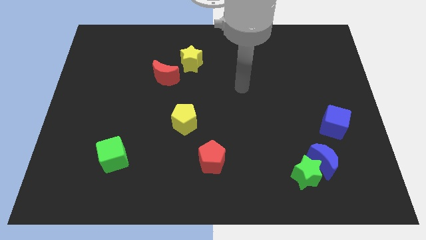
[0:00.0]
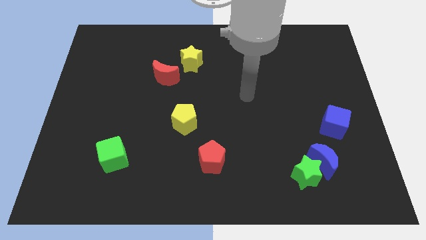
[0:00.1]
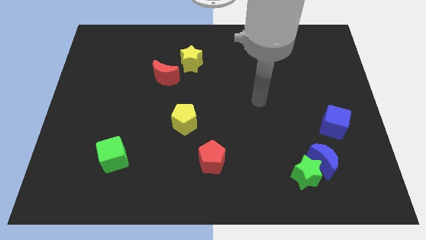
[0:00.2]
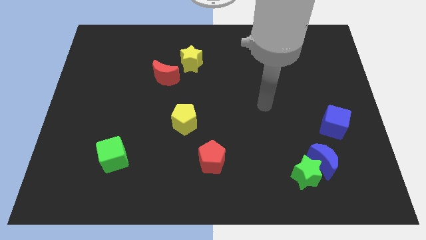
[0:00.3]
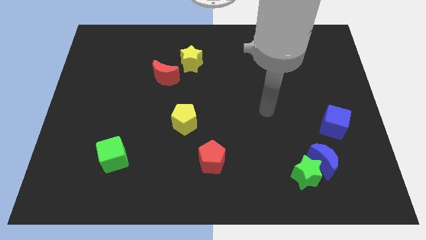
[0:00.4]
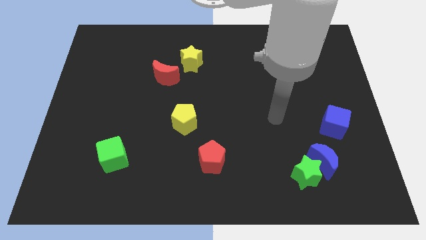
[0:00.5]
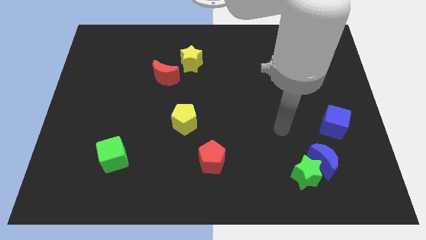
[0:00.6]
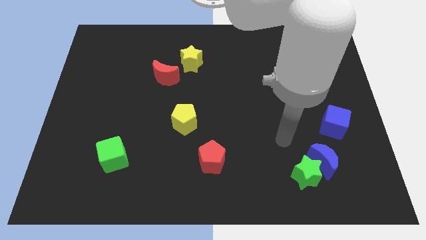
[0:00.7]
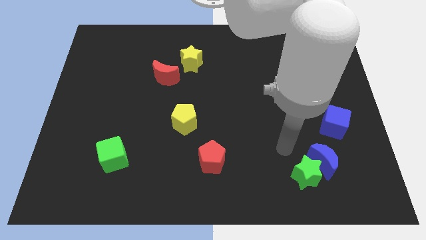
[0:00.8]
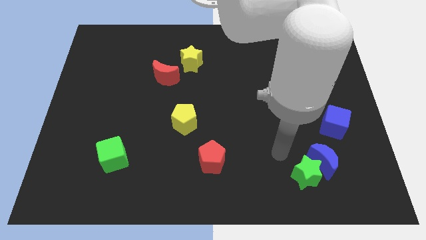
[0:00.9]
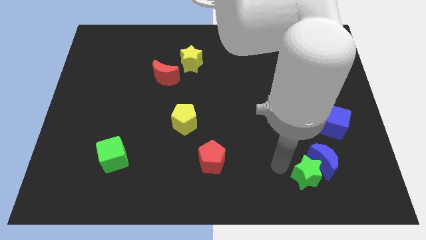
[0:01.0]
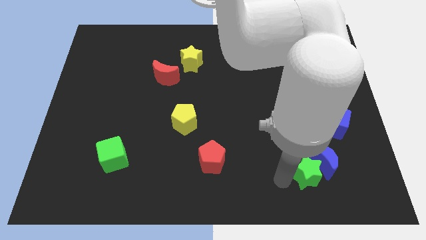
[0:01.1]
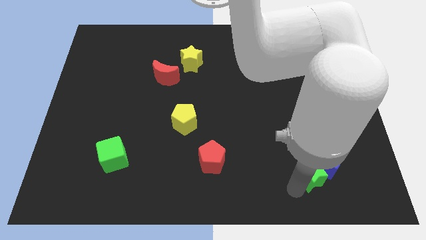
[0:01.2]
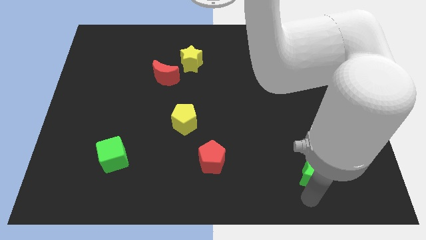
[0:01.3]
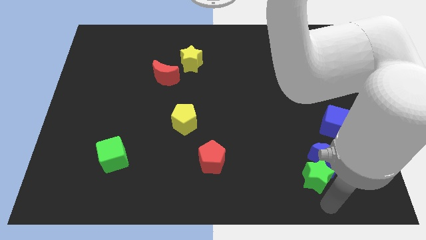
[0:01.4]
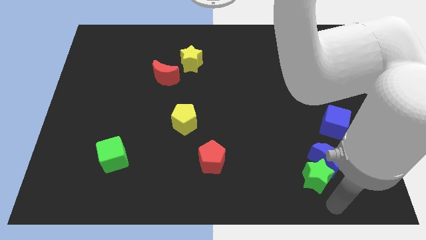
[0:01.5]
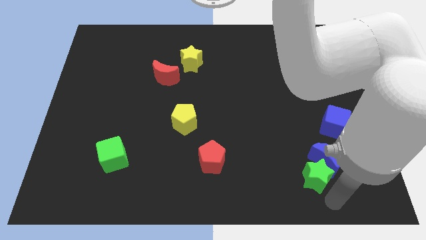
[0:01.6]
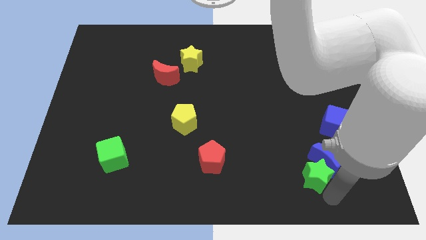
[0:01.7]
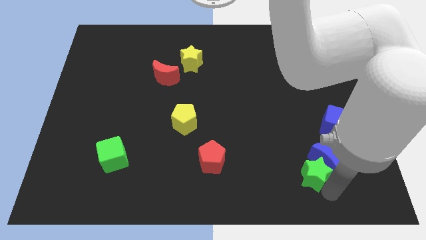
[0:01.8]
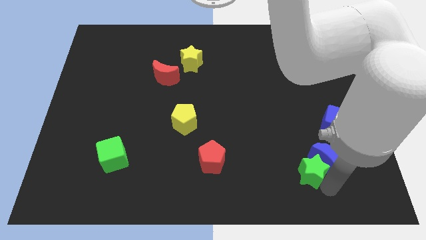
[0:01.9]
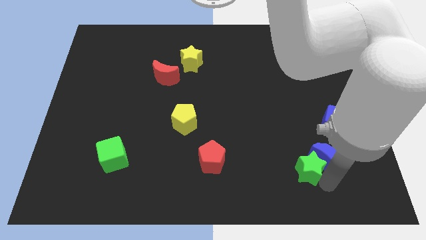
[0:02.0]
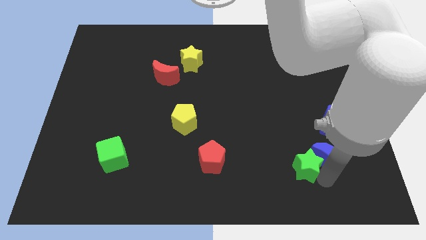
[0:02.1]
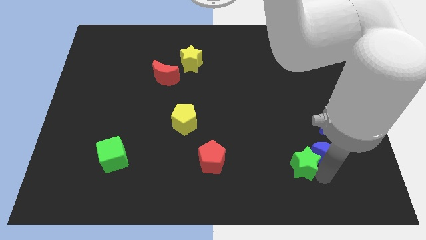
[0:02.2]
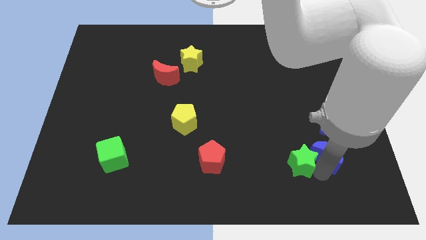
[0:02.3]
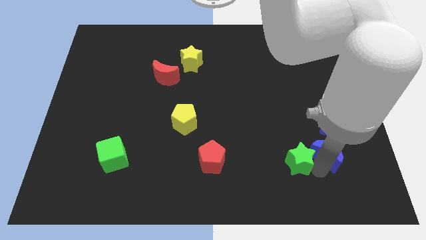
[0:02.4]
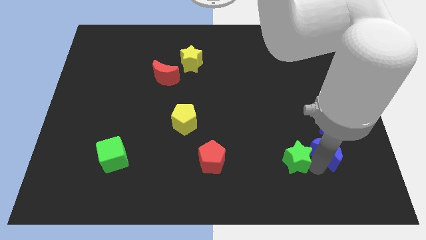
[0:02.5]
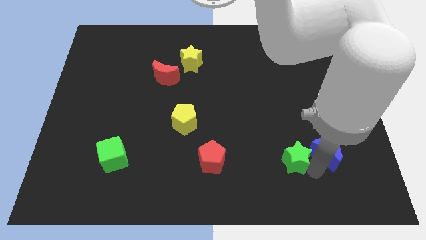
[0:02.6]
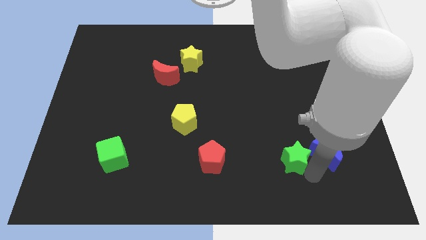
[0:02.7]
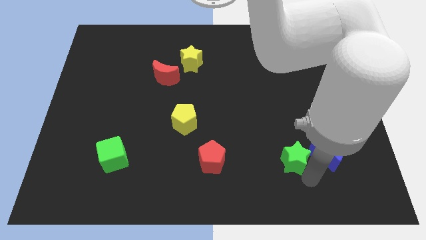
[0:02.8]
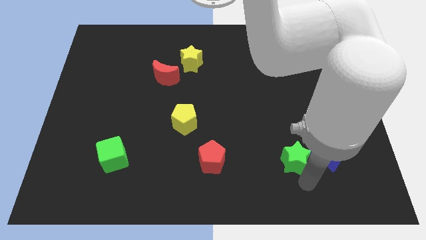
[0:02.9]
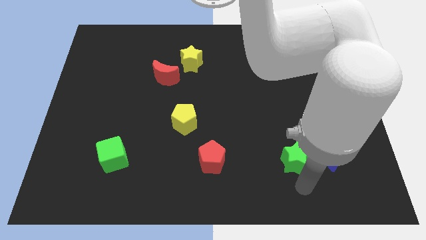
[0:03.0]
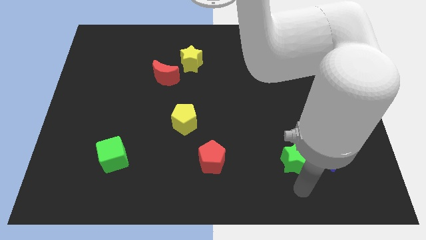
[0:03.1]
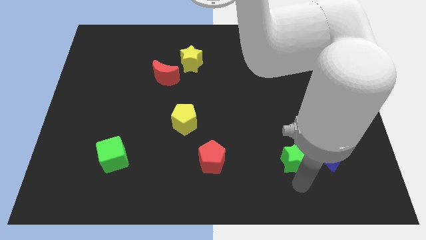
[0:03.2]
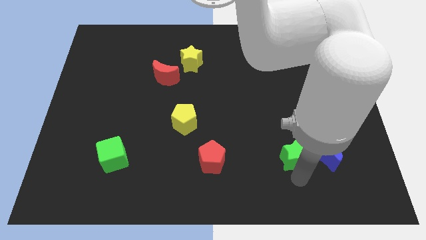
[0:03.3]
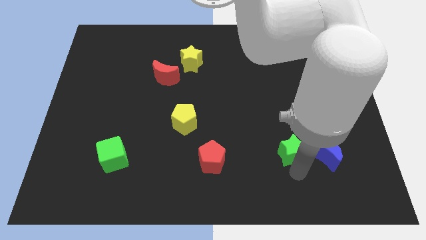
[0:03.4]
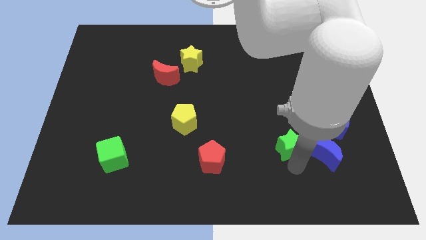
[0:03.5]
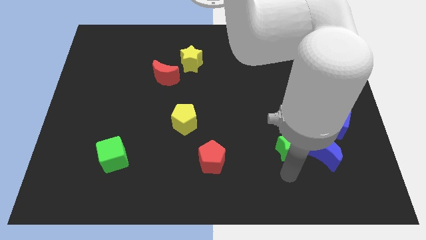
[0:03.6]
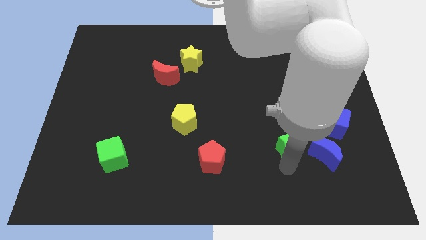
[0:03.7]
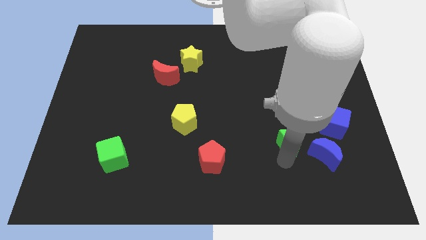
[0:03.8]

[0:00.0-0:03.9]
push the green star upwards slightly

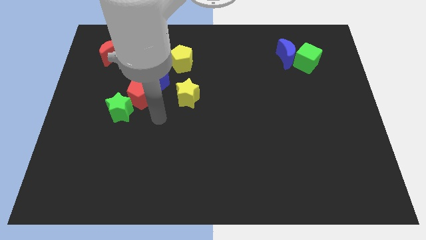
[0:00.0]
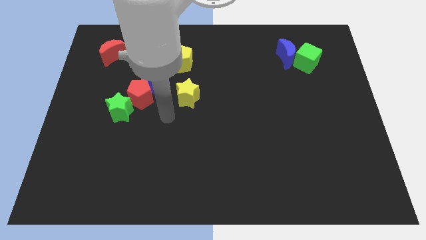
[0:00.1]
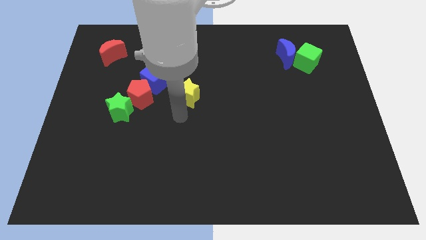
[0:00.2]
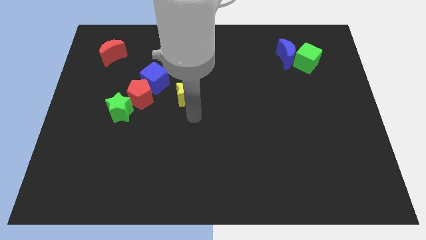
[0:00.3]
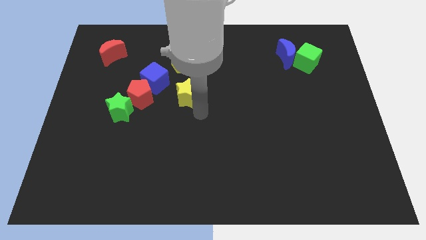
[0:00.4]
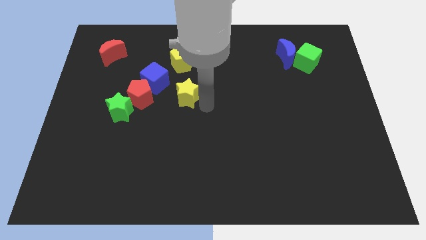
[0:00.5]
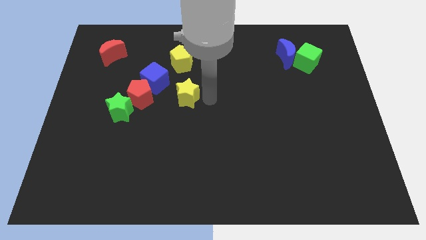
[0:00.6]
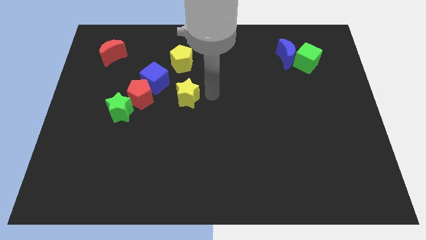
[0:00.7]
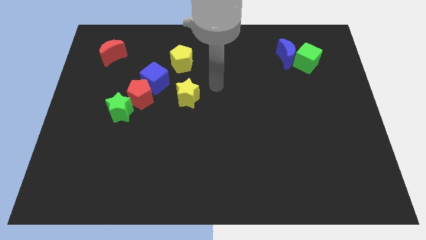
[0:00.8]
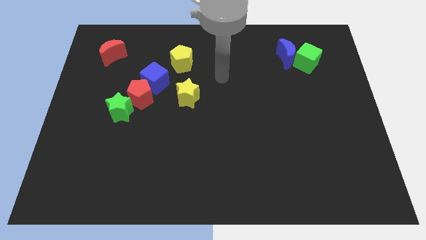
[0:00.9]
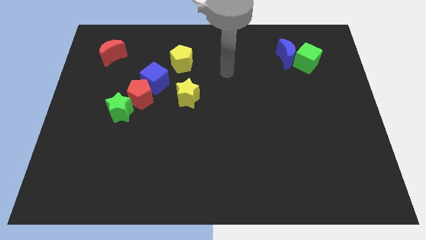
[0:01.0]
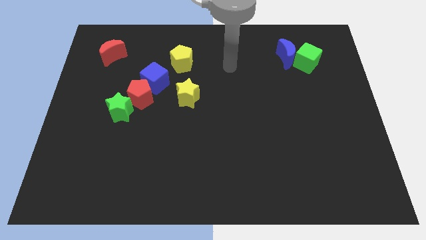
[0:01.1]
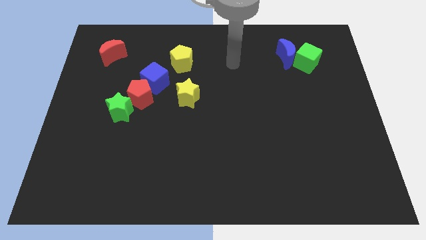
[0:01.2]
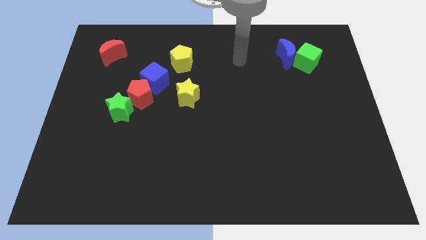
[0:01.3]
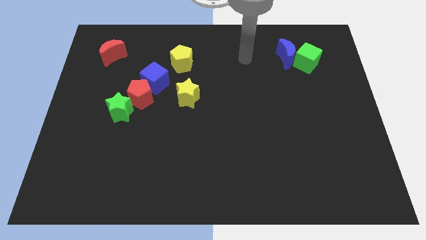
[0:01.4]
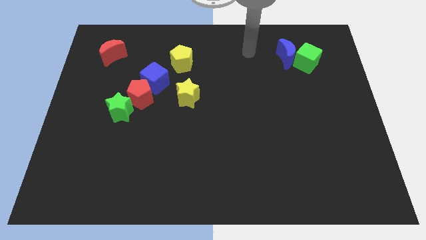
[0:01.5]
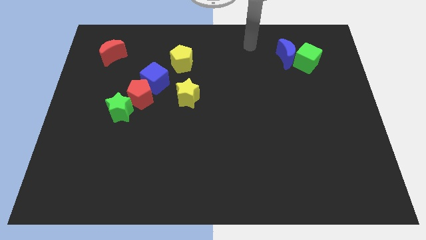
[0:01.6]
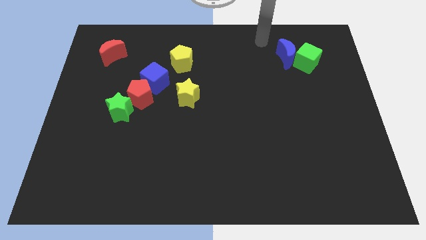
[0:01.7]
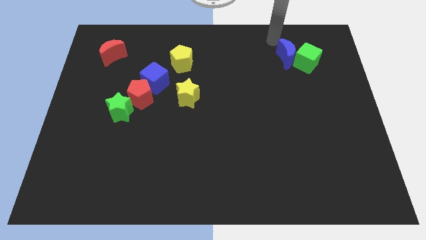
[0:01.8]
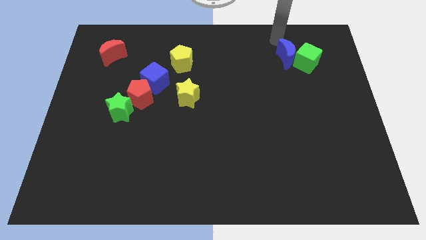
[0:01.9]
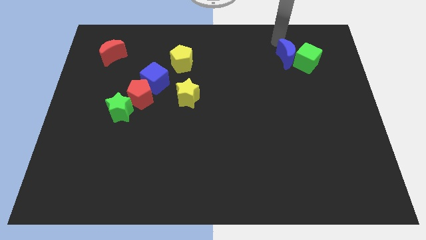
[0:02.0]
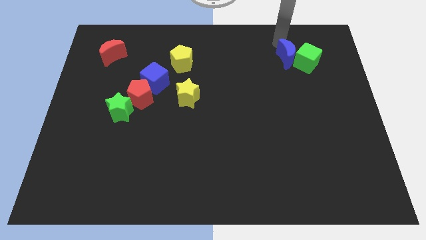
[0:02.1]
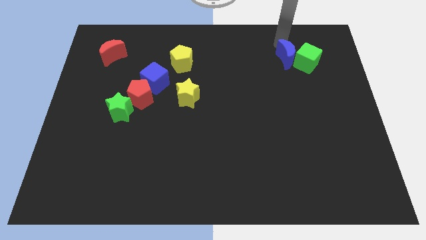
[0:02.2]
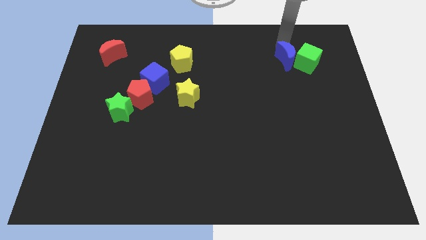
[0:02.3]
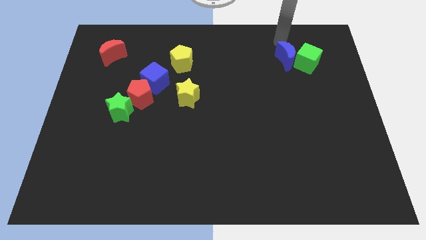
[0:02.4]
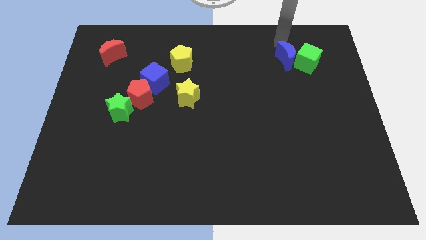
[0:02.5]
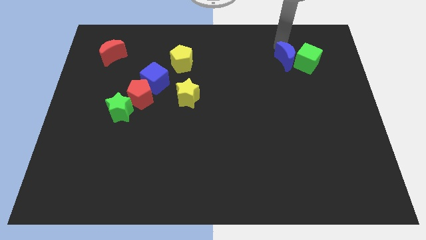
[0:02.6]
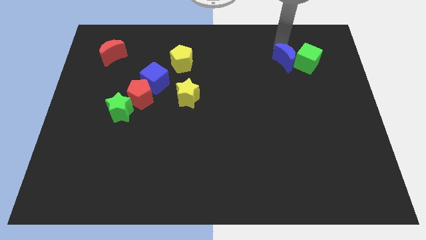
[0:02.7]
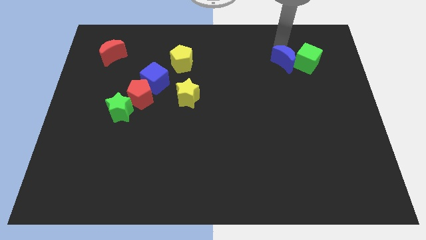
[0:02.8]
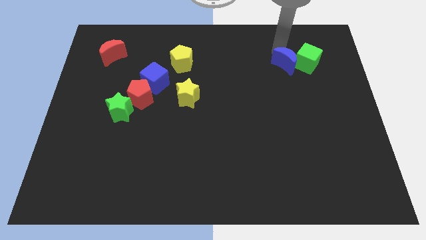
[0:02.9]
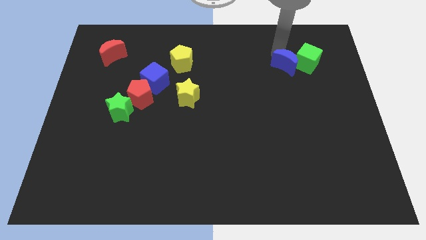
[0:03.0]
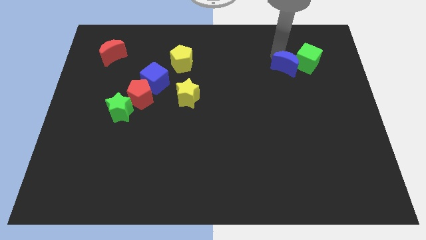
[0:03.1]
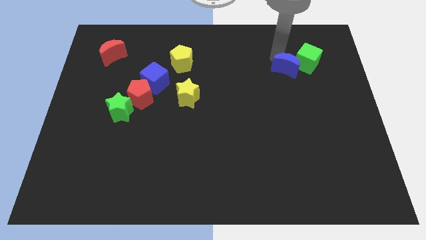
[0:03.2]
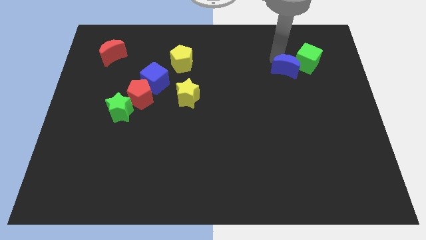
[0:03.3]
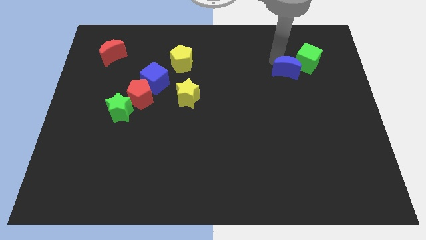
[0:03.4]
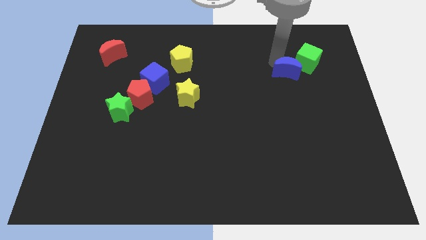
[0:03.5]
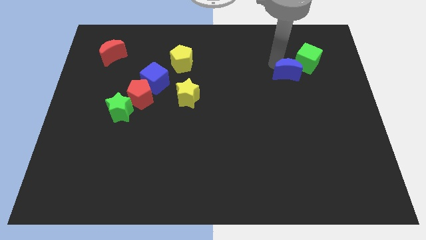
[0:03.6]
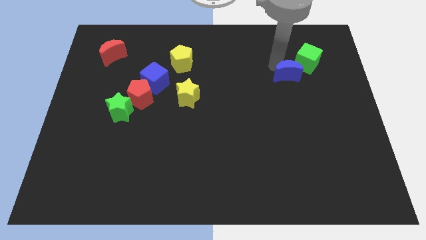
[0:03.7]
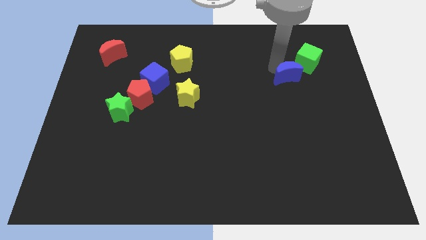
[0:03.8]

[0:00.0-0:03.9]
move the blue moon downwards slightly

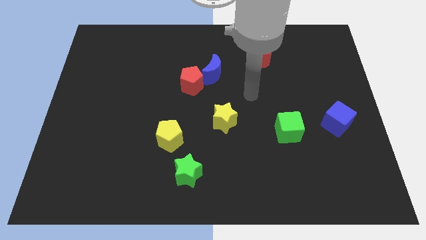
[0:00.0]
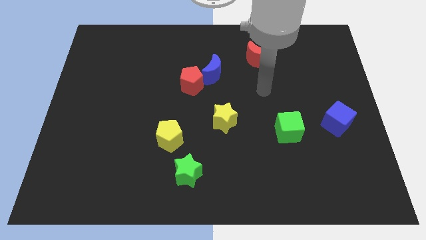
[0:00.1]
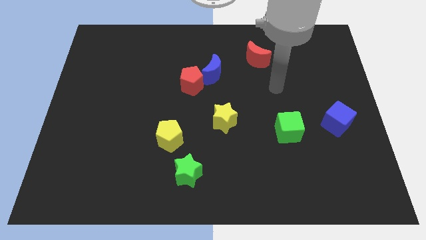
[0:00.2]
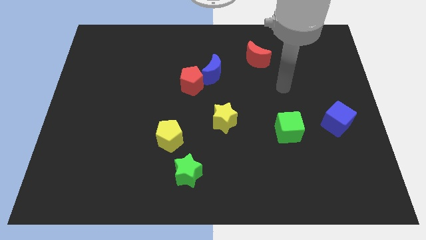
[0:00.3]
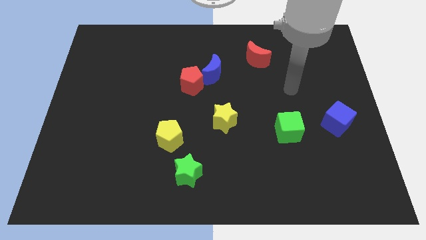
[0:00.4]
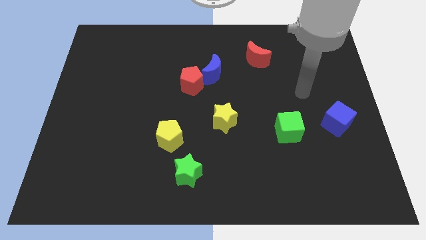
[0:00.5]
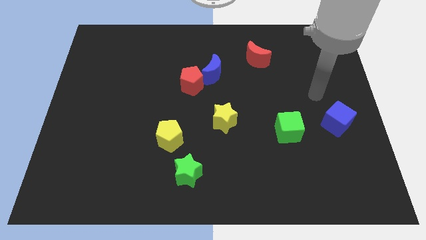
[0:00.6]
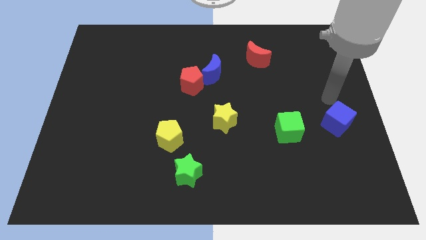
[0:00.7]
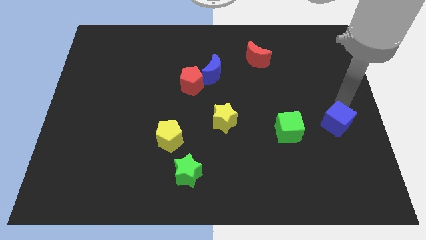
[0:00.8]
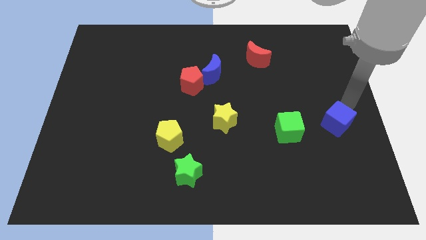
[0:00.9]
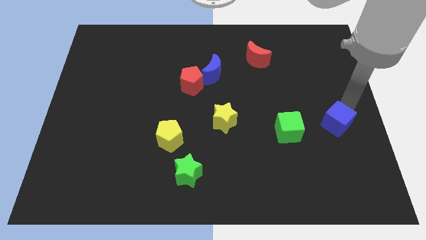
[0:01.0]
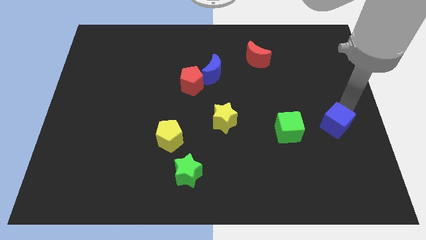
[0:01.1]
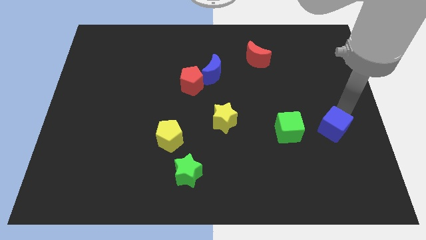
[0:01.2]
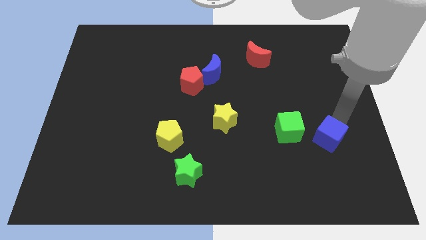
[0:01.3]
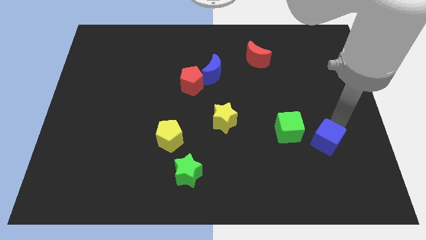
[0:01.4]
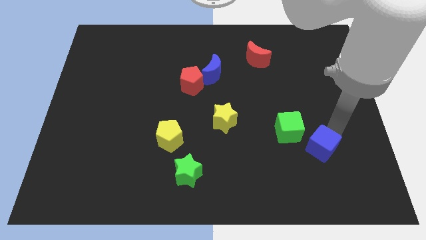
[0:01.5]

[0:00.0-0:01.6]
slightly slide the blue cube down and left
